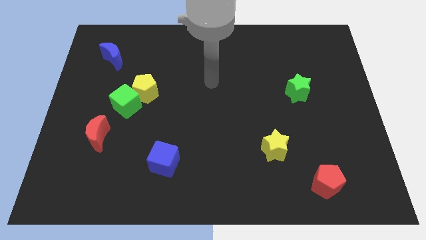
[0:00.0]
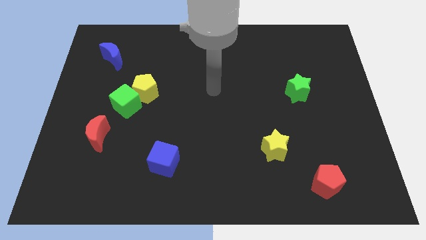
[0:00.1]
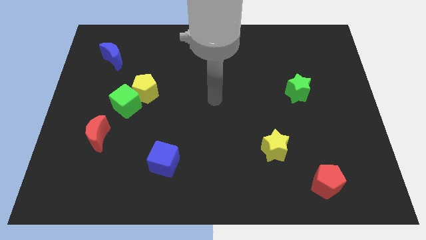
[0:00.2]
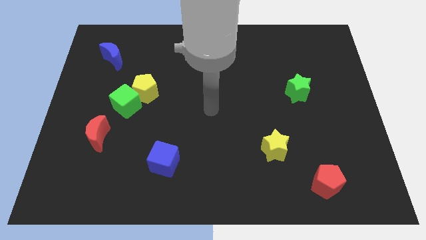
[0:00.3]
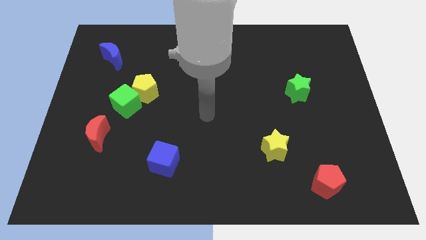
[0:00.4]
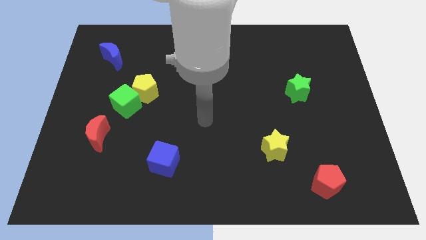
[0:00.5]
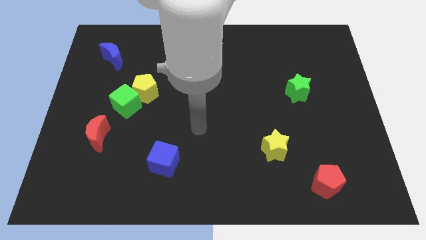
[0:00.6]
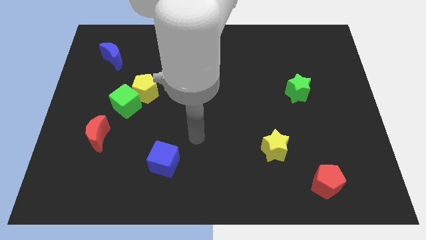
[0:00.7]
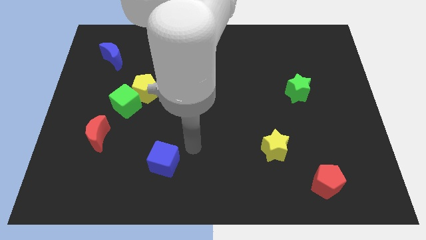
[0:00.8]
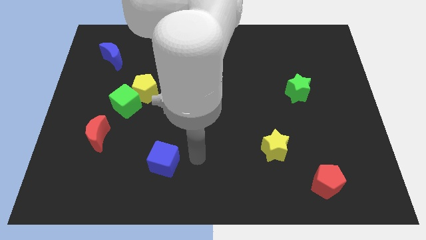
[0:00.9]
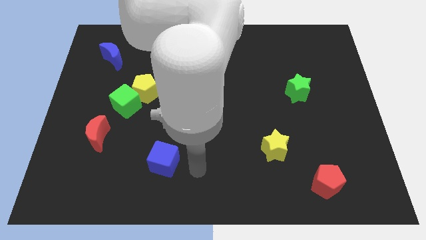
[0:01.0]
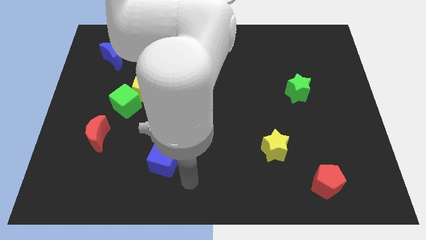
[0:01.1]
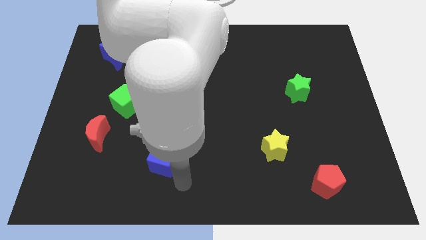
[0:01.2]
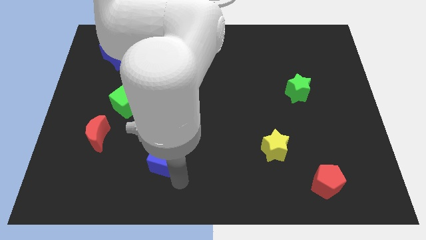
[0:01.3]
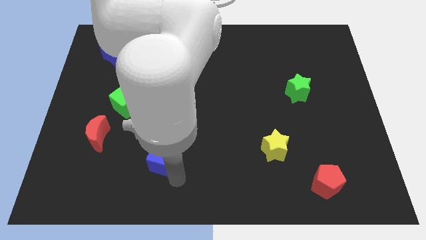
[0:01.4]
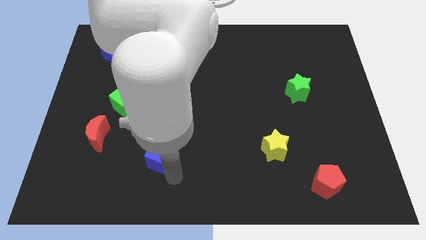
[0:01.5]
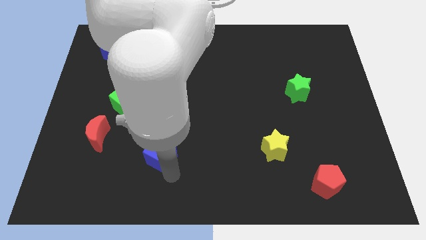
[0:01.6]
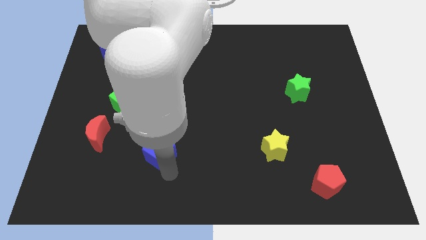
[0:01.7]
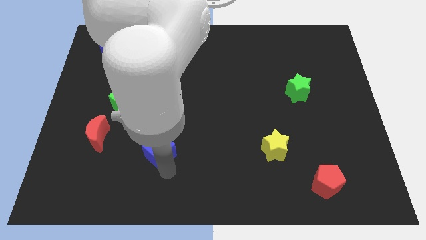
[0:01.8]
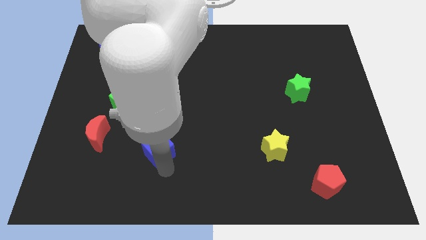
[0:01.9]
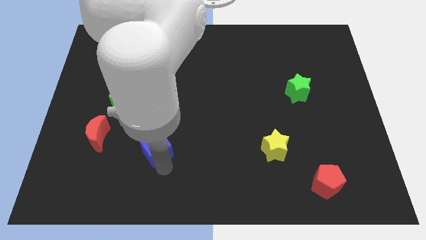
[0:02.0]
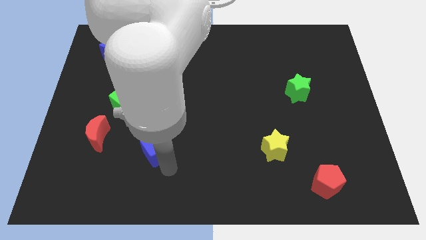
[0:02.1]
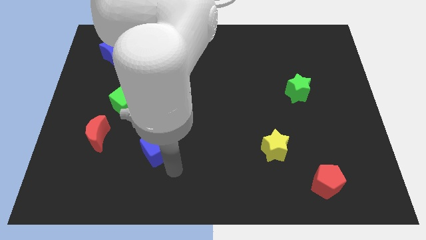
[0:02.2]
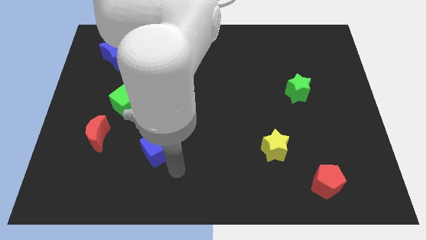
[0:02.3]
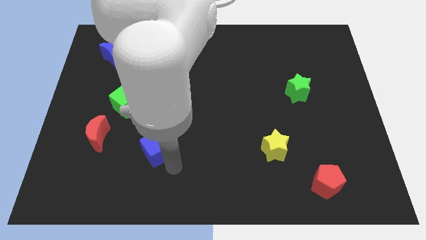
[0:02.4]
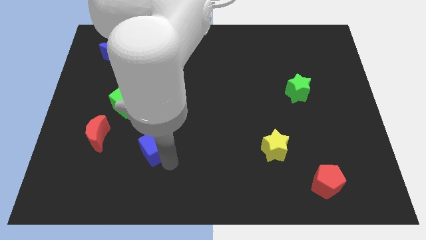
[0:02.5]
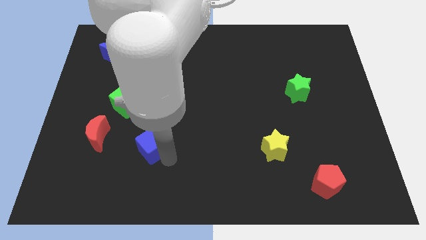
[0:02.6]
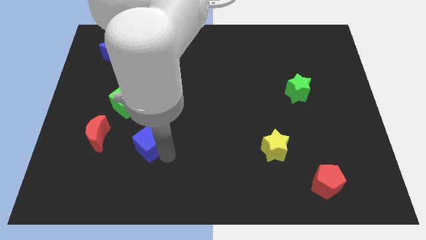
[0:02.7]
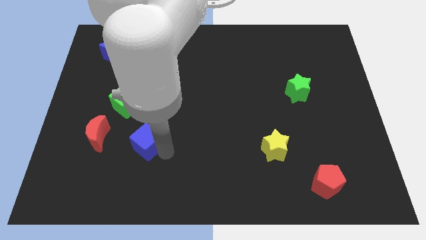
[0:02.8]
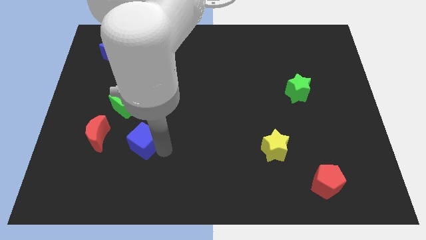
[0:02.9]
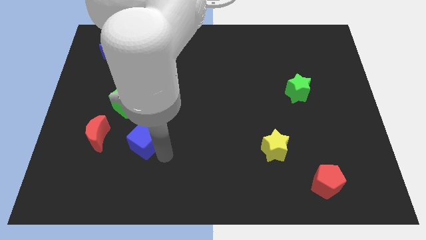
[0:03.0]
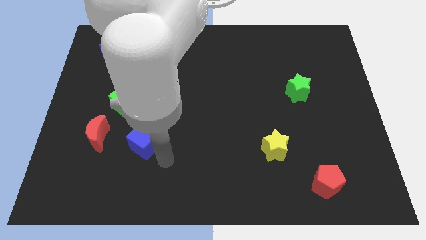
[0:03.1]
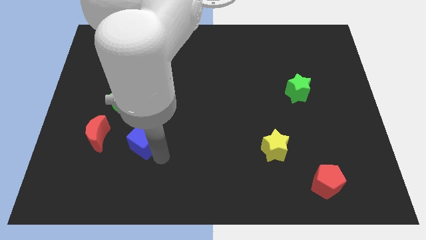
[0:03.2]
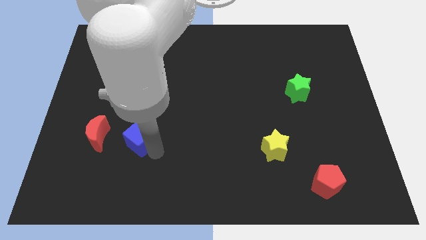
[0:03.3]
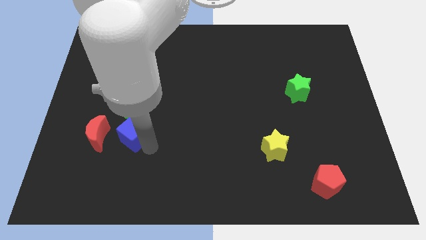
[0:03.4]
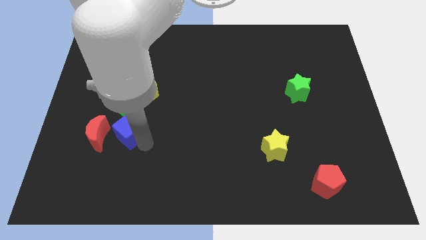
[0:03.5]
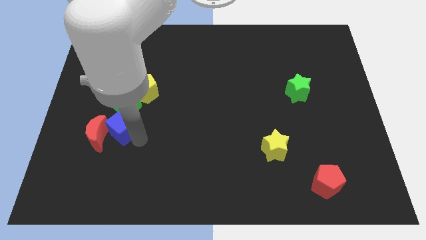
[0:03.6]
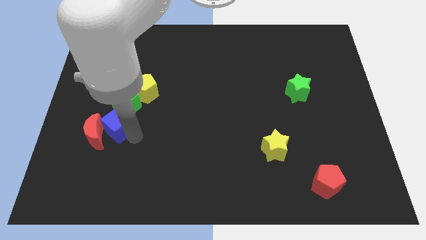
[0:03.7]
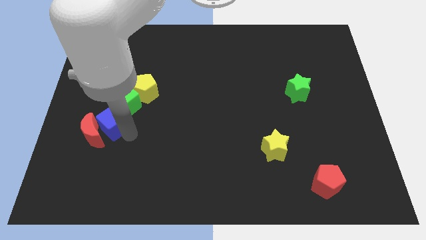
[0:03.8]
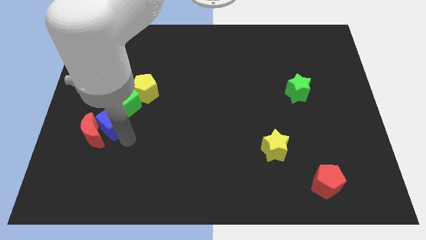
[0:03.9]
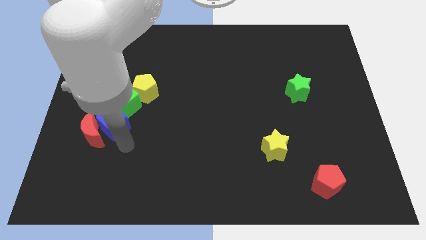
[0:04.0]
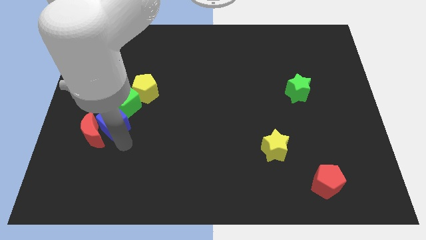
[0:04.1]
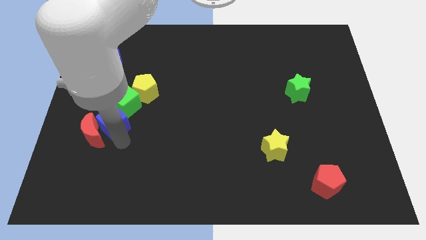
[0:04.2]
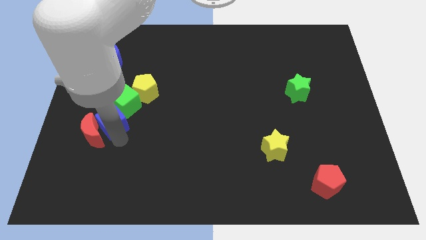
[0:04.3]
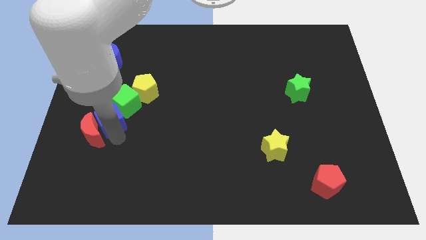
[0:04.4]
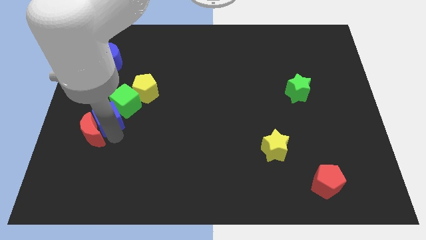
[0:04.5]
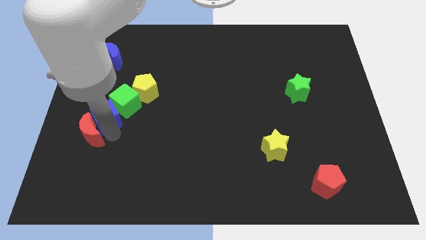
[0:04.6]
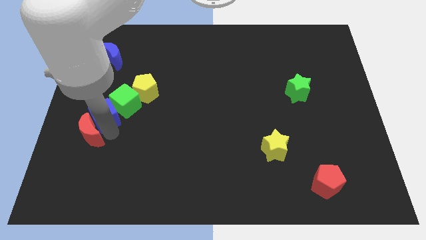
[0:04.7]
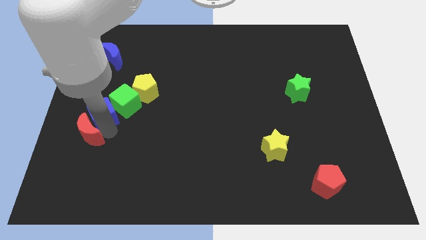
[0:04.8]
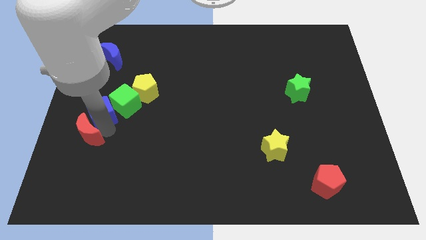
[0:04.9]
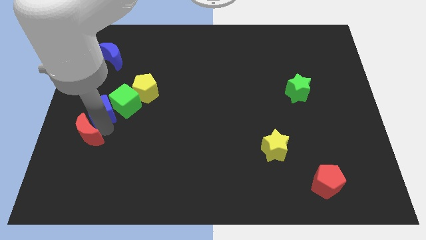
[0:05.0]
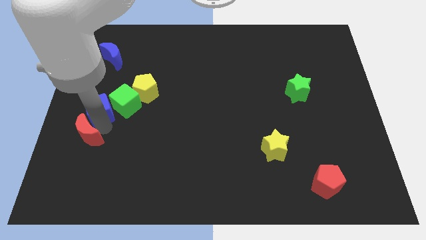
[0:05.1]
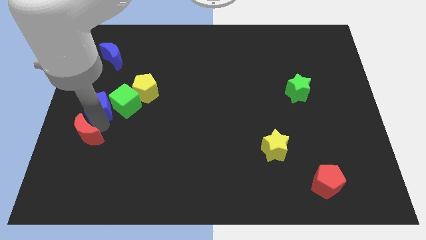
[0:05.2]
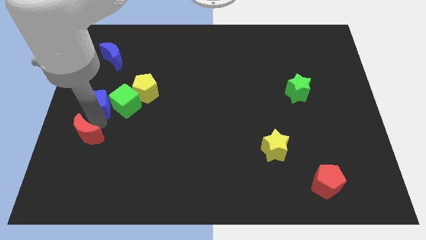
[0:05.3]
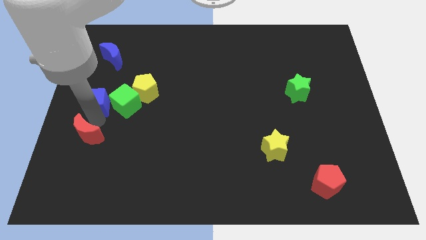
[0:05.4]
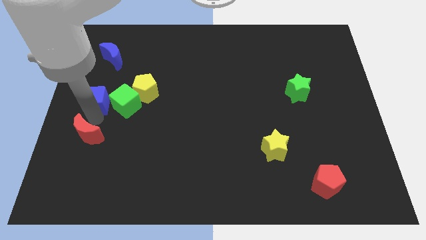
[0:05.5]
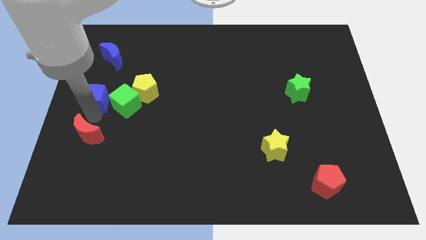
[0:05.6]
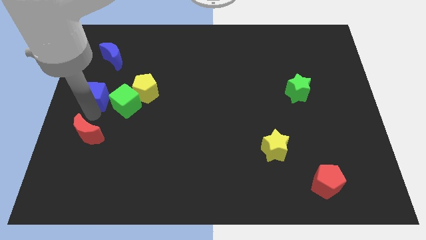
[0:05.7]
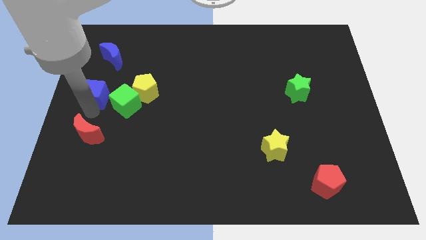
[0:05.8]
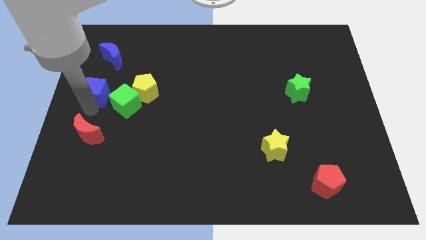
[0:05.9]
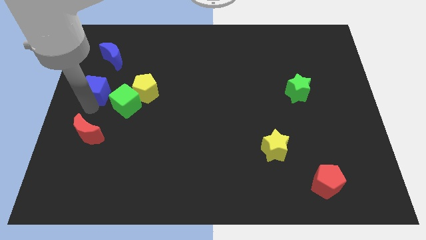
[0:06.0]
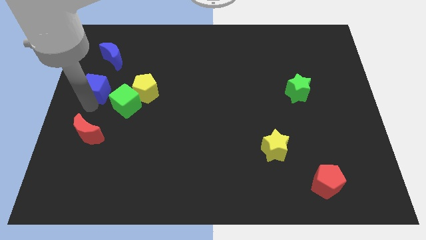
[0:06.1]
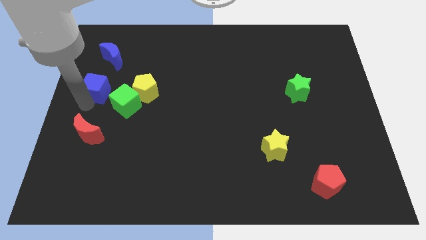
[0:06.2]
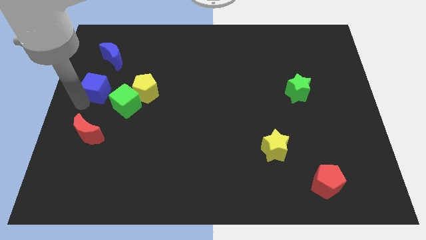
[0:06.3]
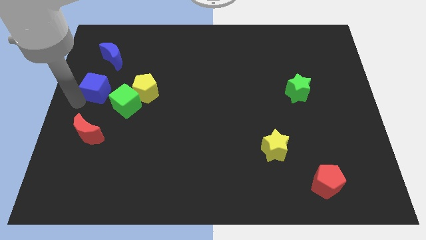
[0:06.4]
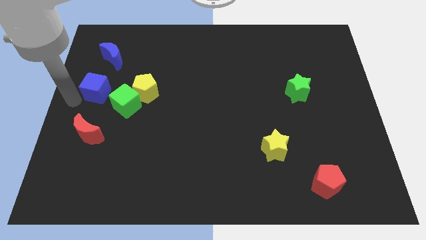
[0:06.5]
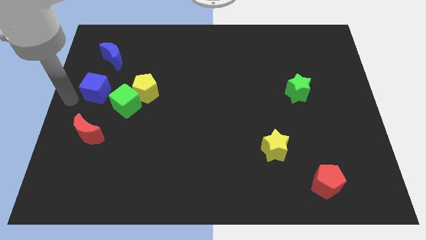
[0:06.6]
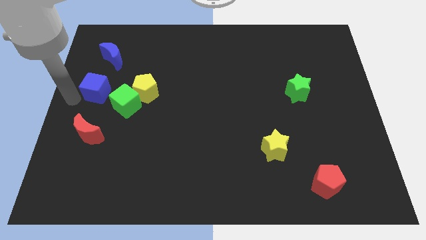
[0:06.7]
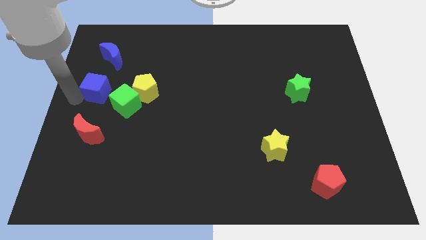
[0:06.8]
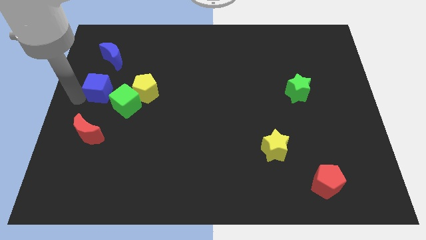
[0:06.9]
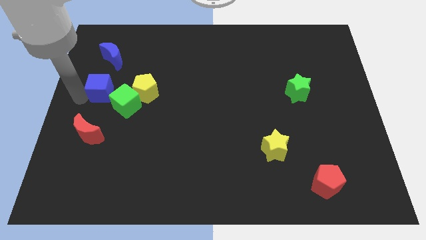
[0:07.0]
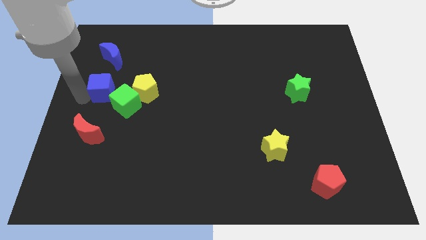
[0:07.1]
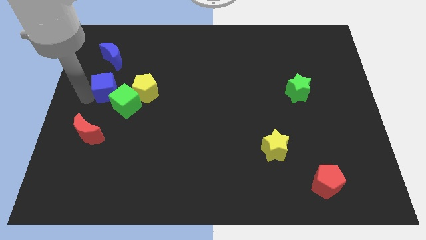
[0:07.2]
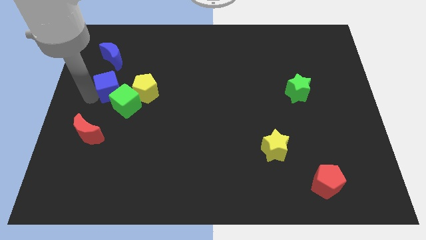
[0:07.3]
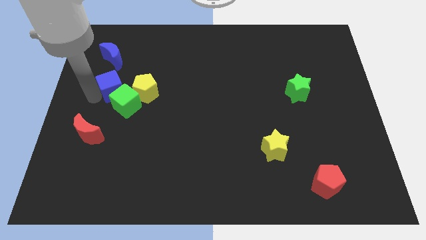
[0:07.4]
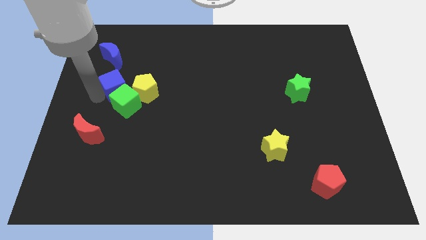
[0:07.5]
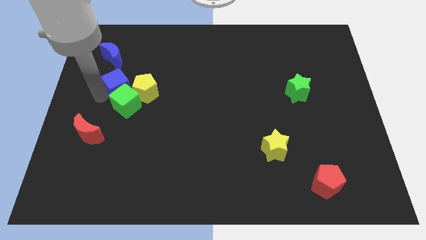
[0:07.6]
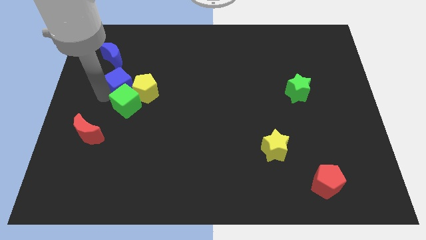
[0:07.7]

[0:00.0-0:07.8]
push the blue cube diagonally down and to the right of the blue moon
